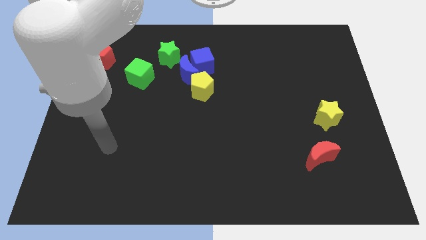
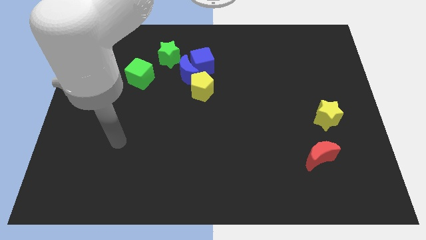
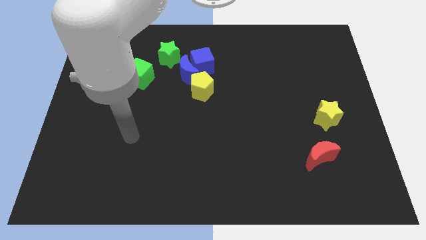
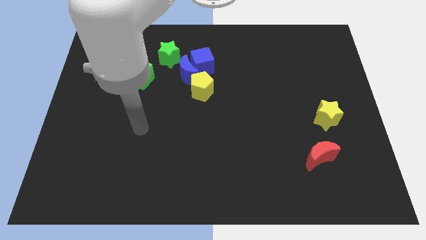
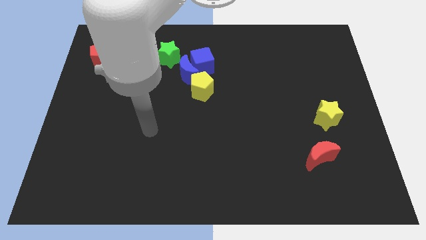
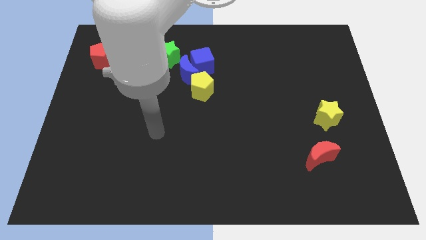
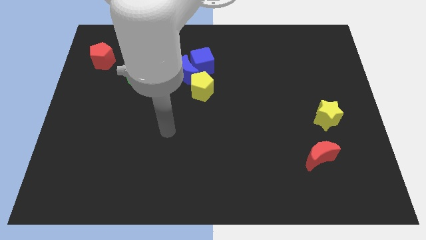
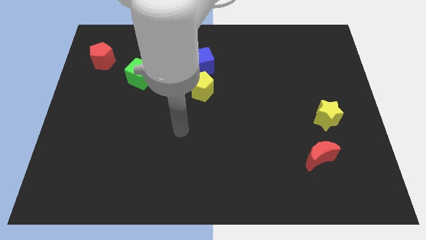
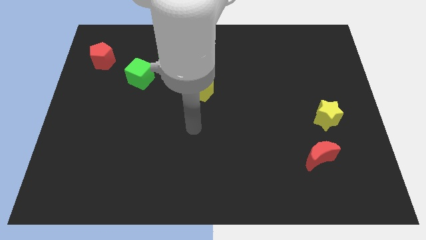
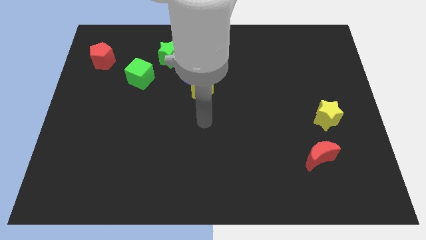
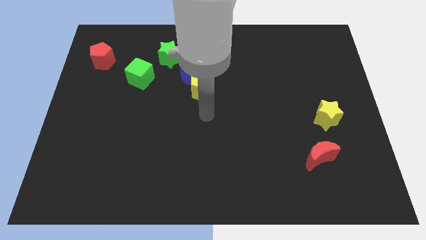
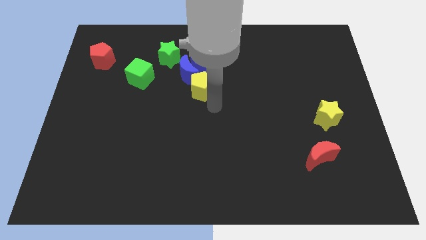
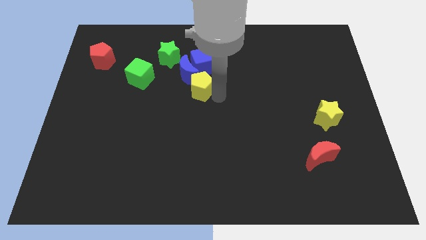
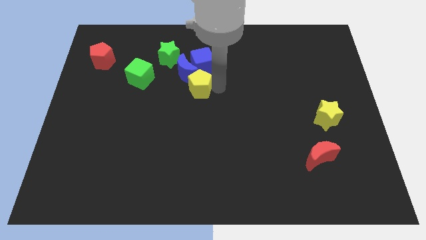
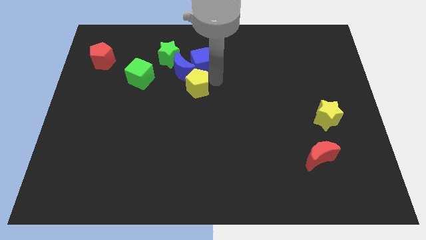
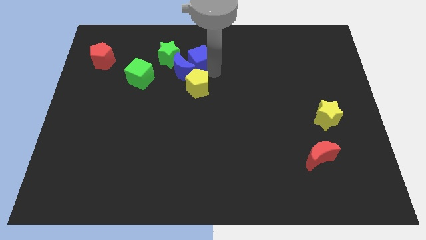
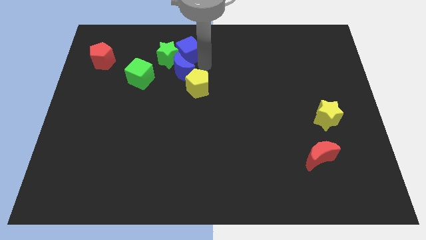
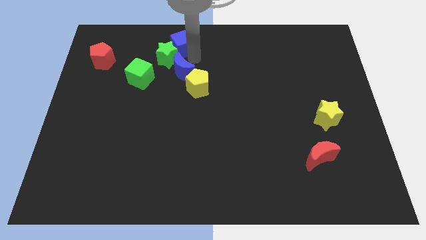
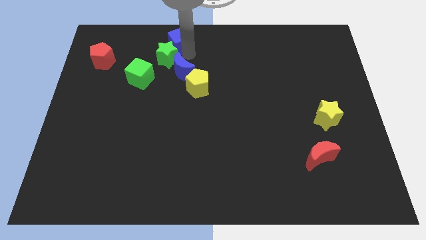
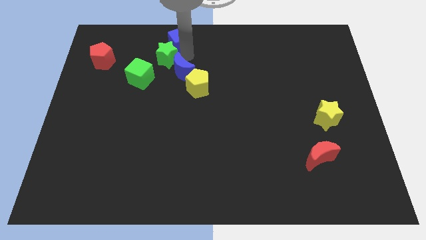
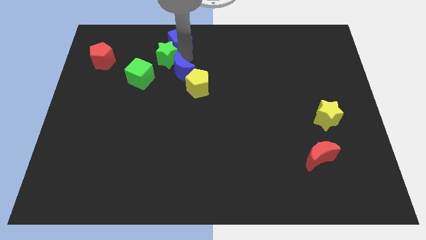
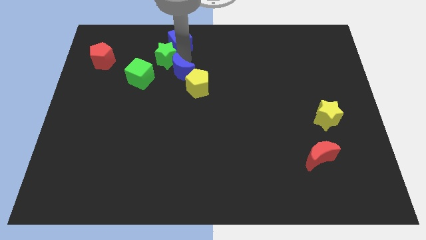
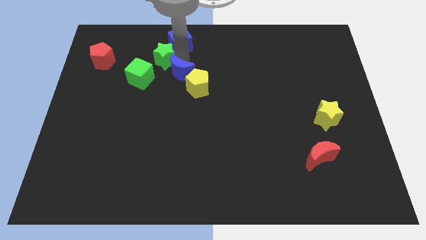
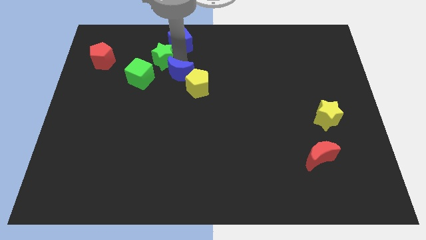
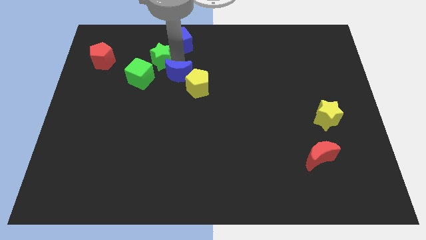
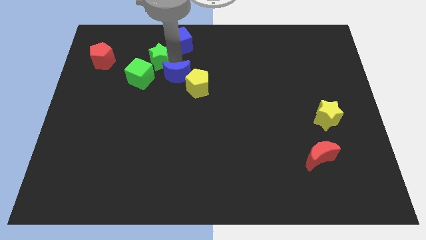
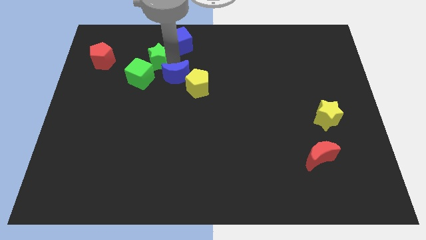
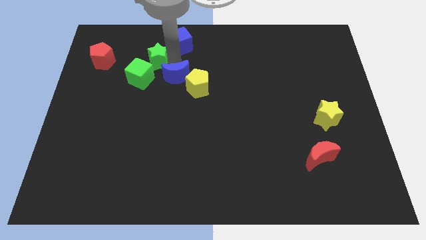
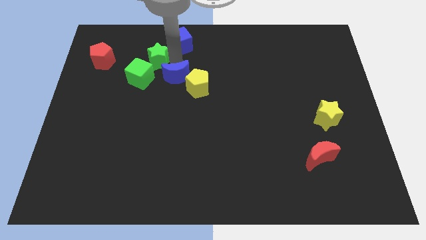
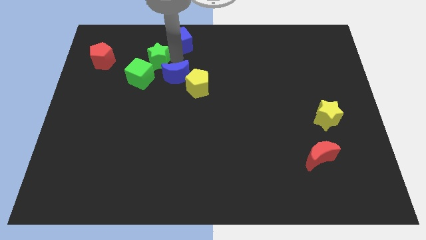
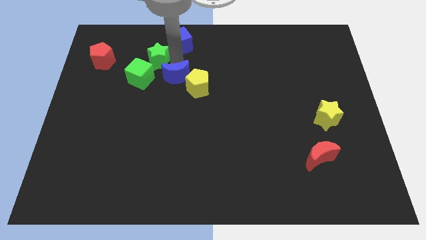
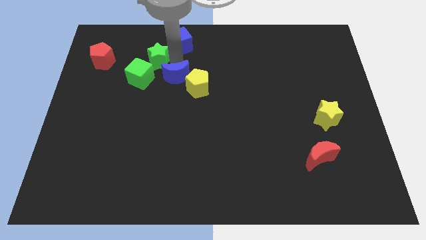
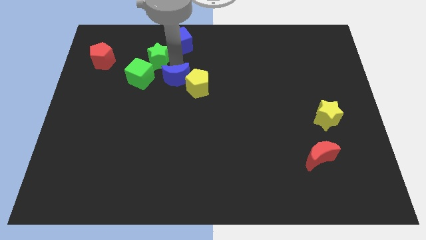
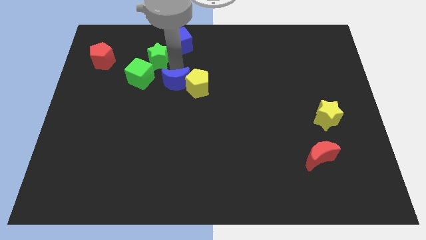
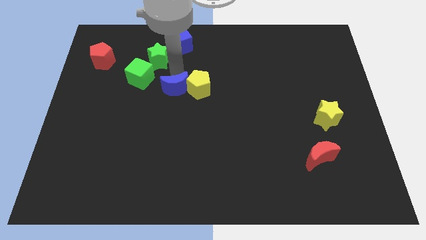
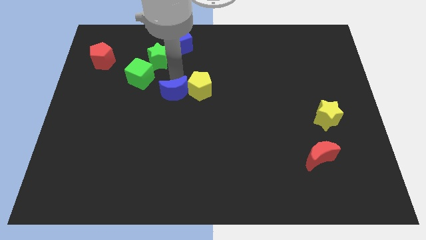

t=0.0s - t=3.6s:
move the blue moon away from the group of blocks

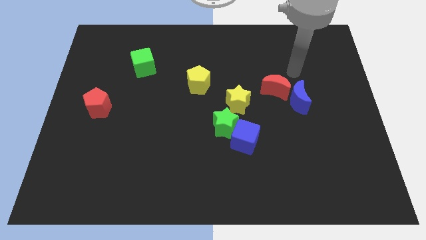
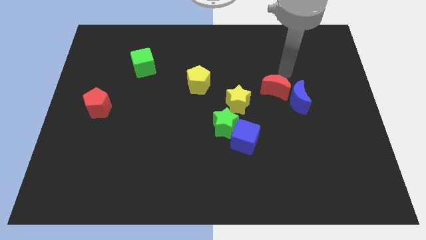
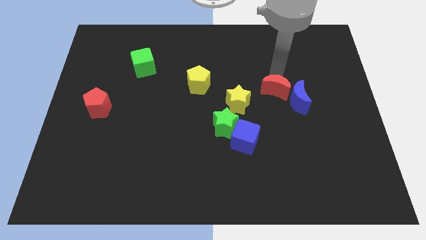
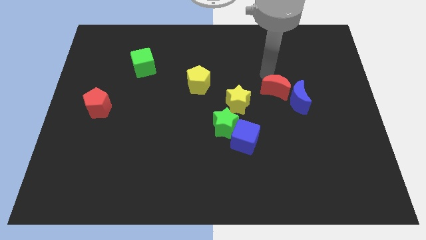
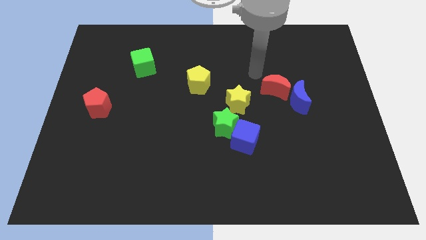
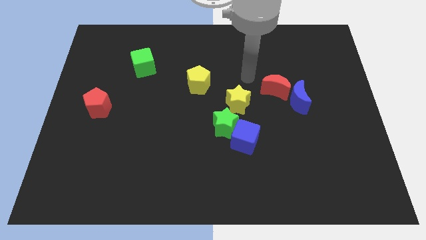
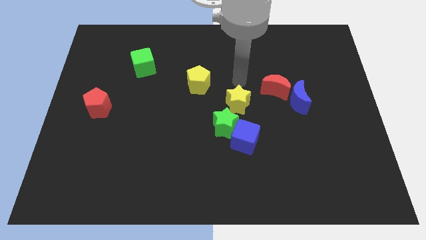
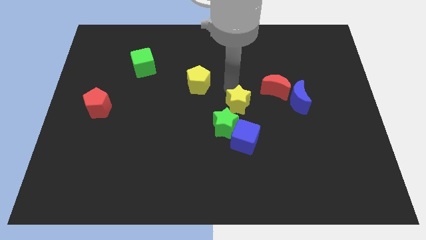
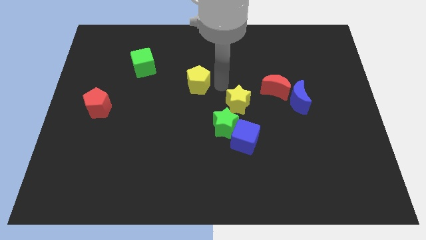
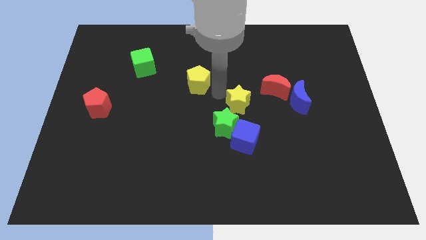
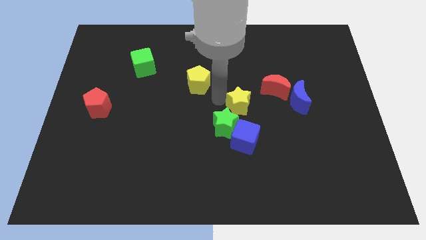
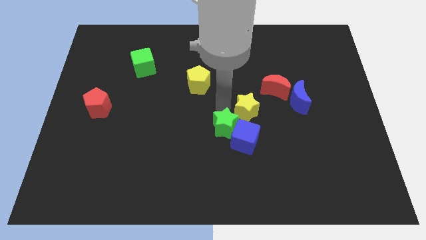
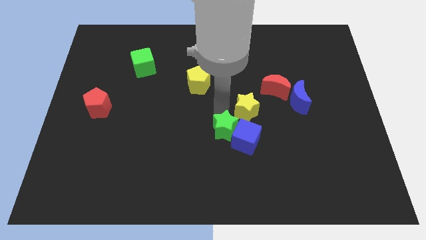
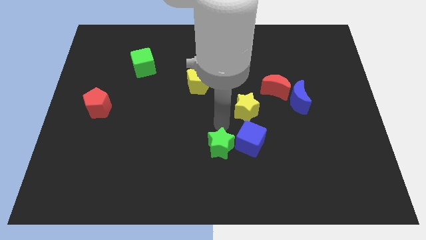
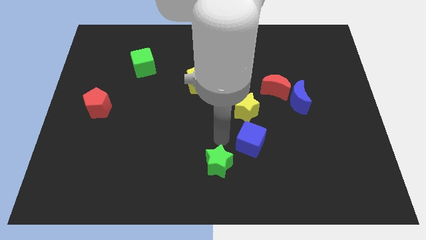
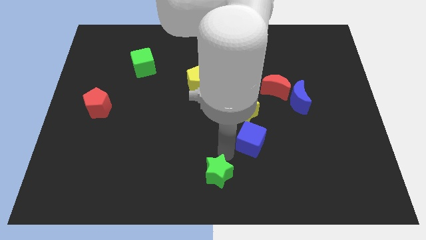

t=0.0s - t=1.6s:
separate the blue cube from the green star

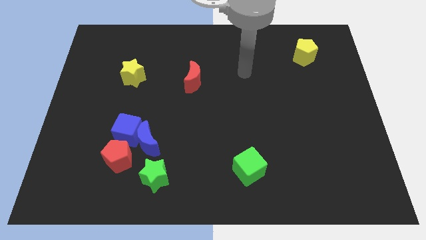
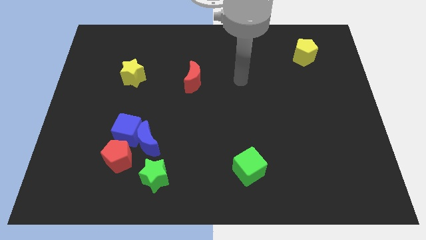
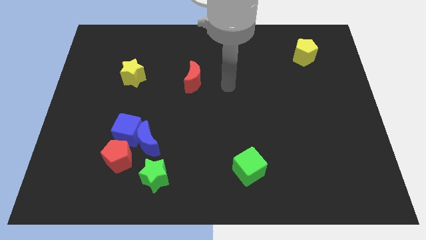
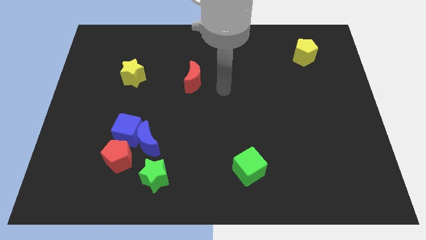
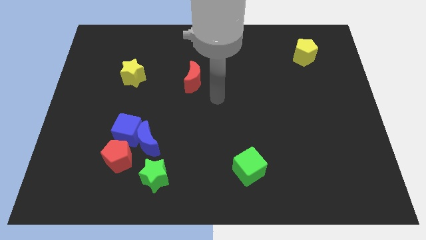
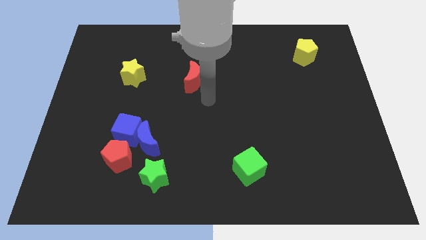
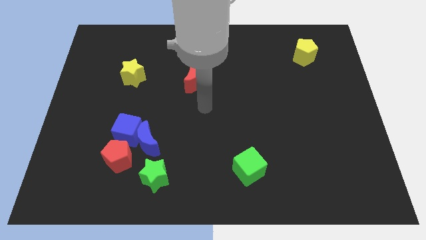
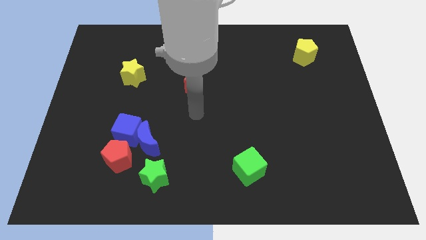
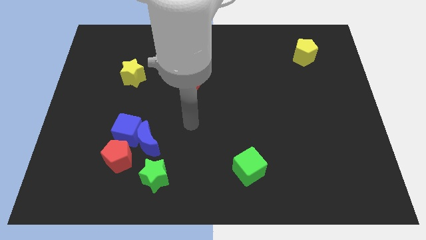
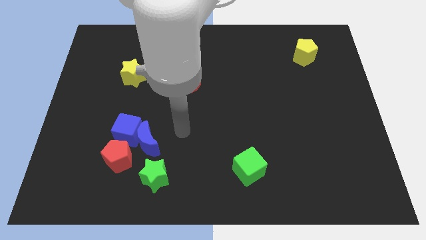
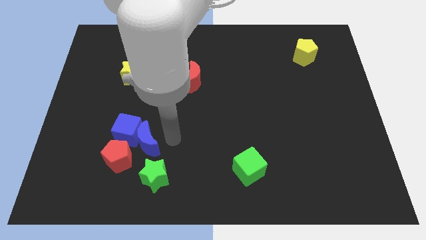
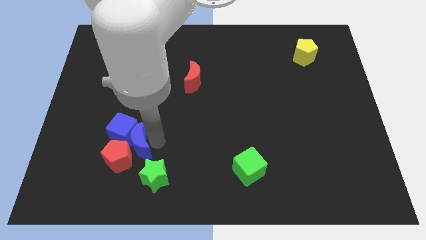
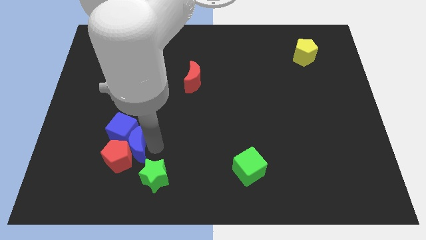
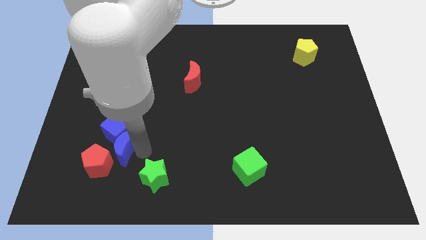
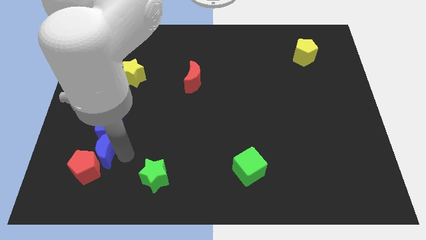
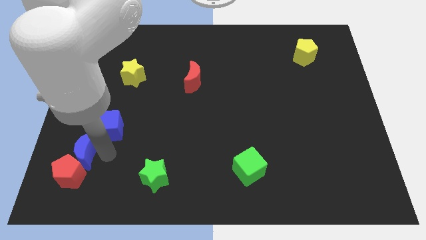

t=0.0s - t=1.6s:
move the blue cube away from the blue moon and red pentagon

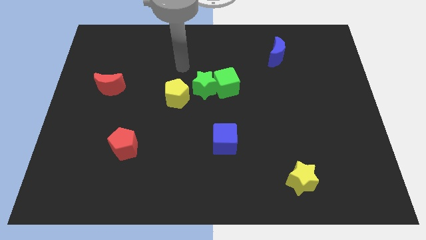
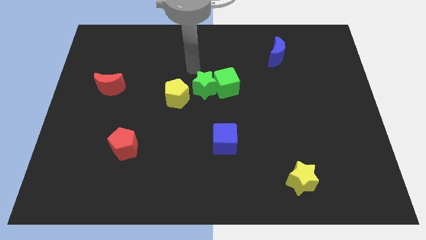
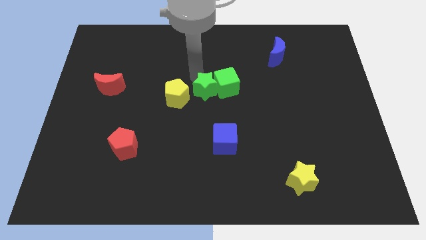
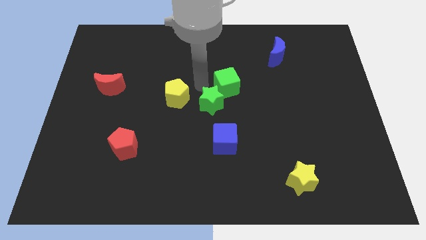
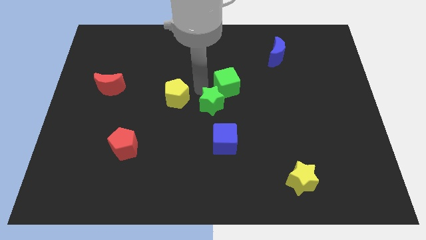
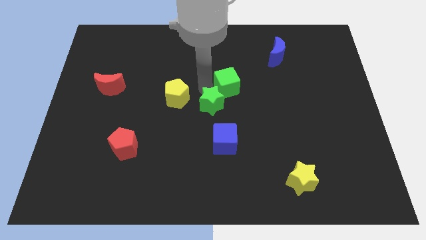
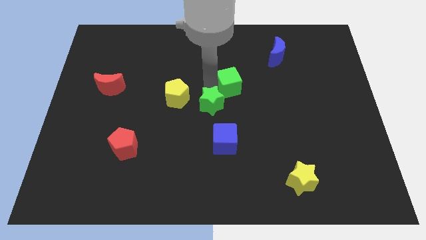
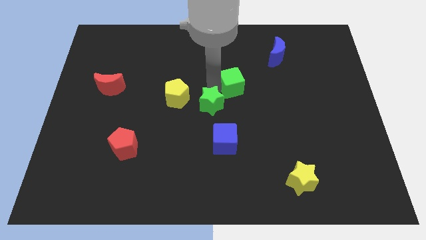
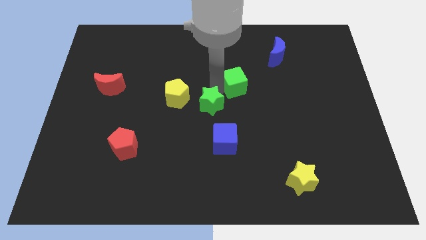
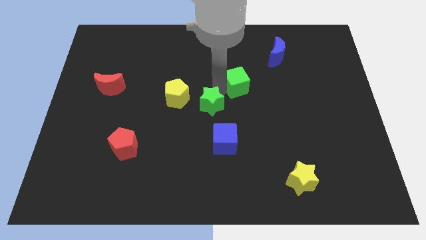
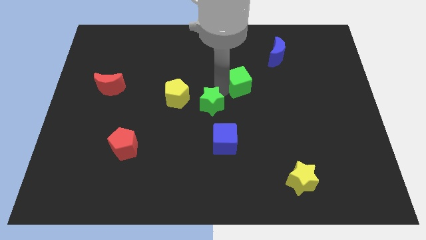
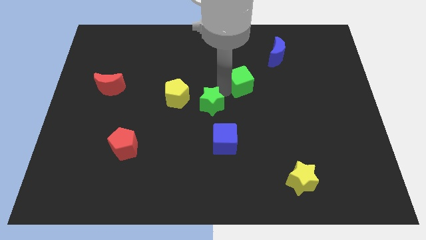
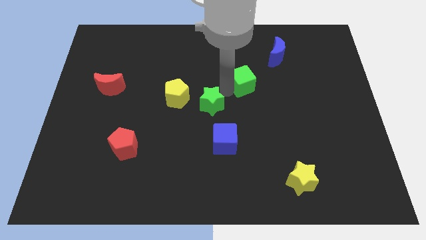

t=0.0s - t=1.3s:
move the green cube away from the green star

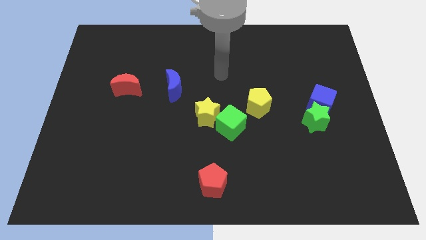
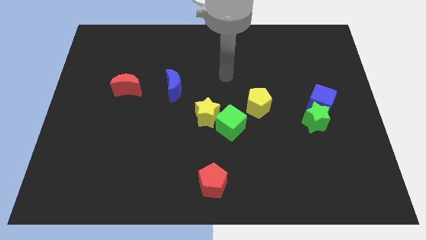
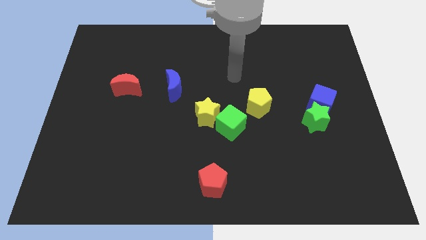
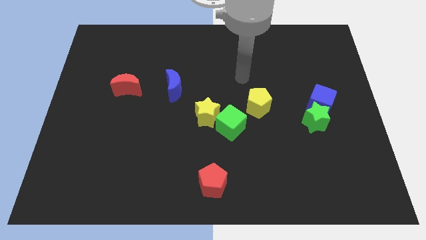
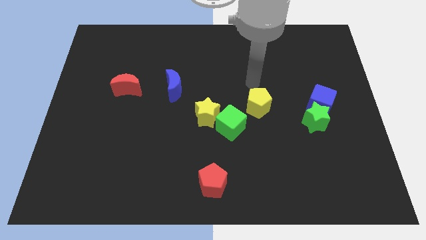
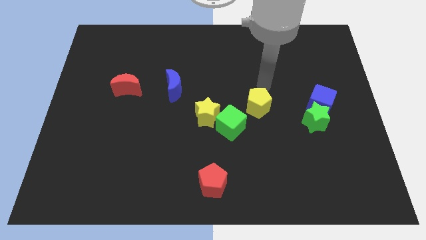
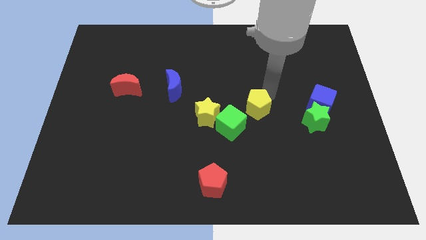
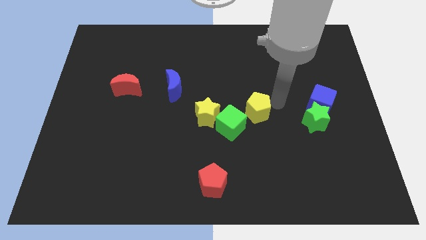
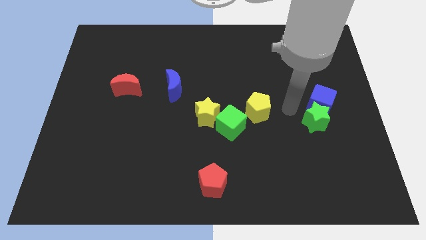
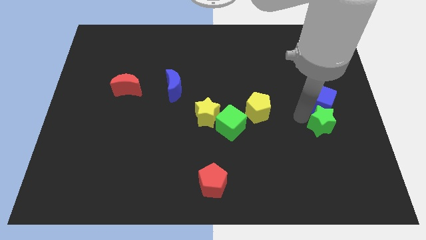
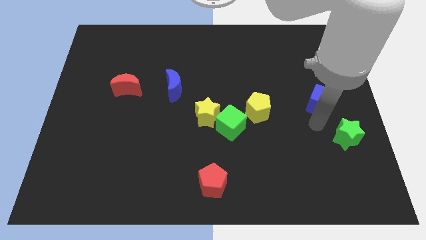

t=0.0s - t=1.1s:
pull the blue cube apart from the green star
